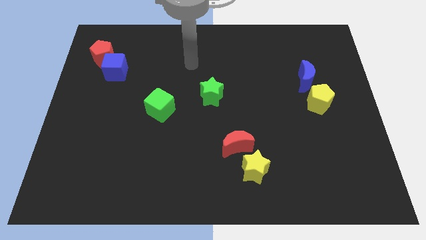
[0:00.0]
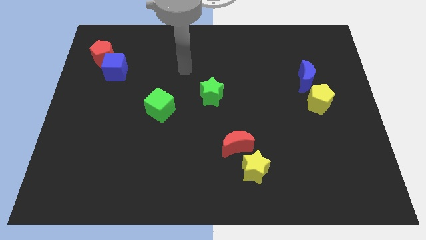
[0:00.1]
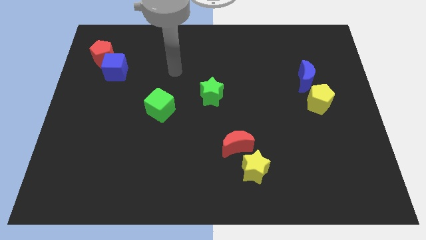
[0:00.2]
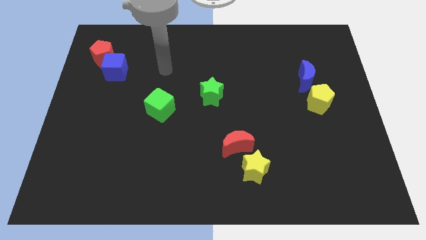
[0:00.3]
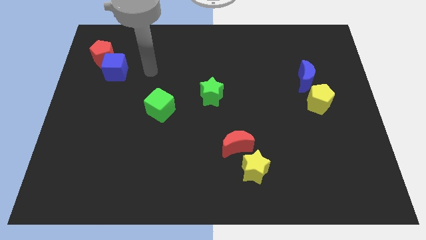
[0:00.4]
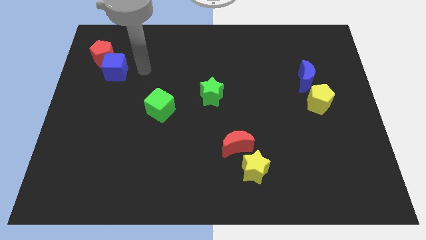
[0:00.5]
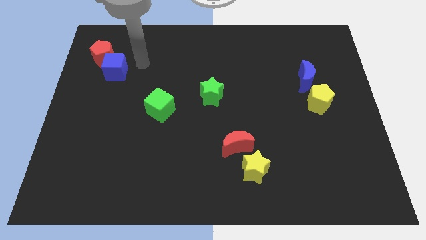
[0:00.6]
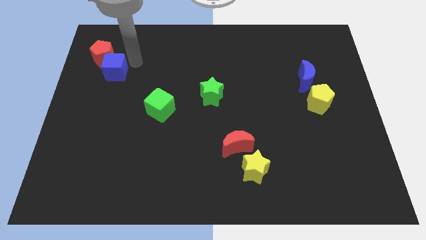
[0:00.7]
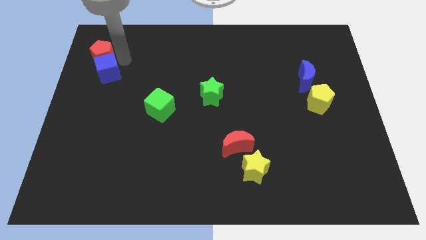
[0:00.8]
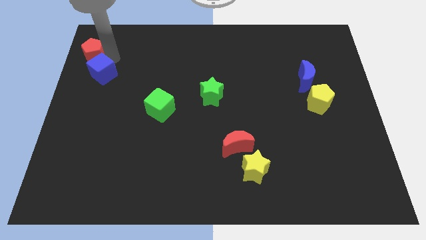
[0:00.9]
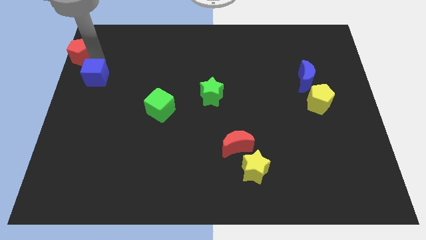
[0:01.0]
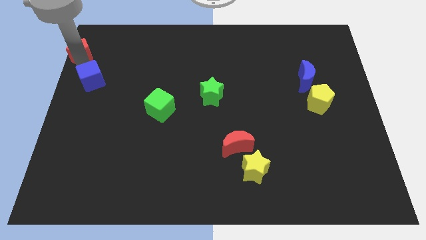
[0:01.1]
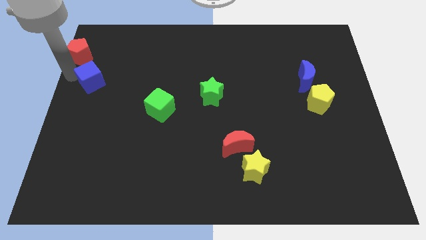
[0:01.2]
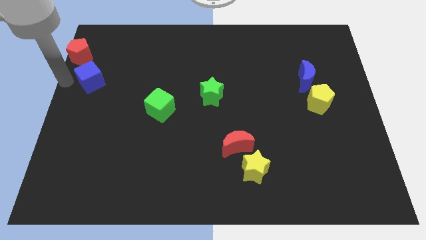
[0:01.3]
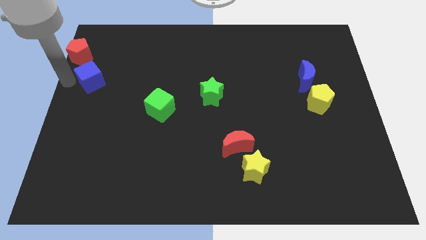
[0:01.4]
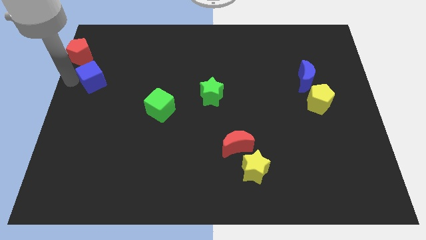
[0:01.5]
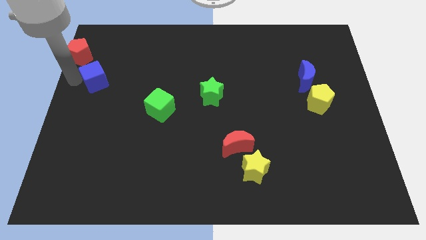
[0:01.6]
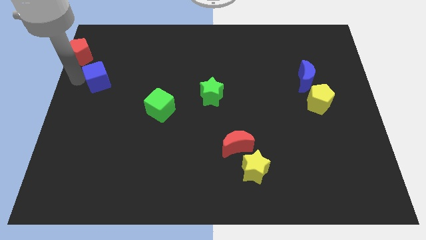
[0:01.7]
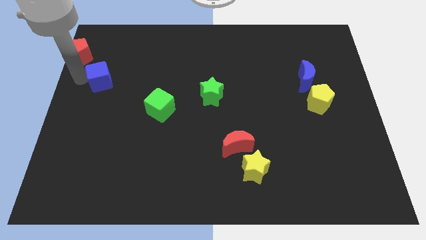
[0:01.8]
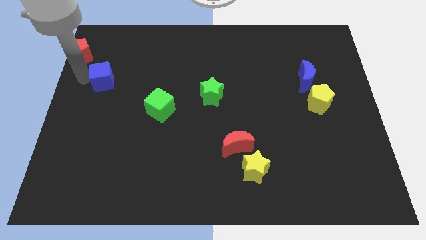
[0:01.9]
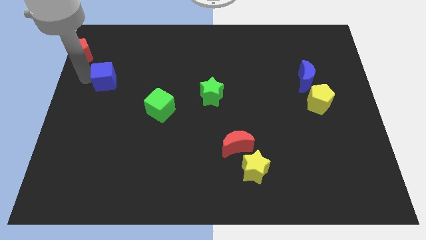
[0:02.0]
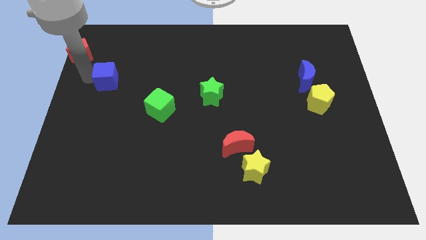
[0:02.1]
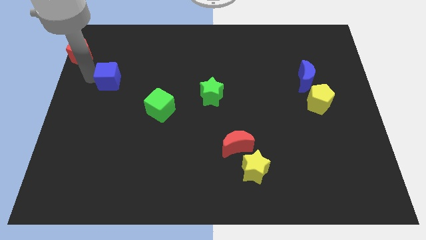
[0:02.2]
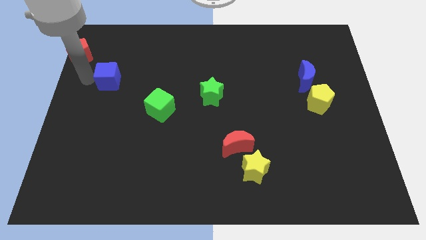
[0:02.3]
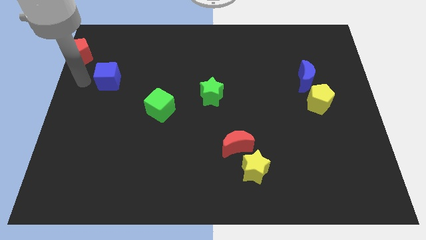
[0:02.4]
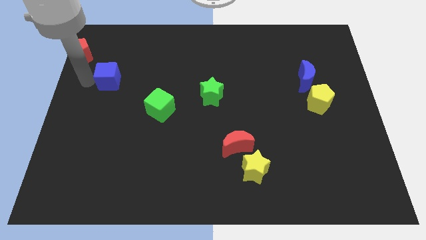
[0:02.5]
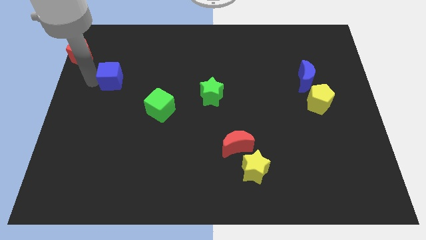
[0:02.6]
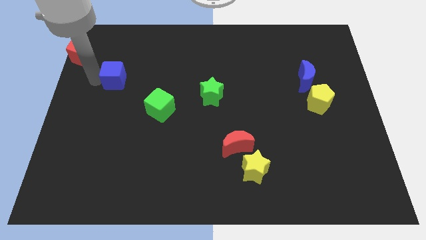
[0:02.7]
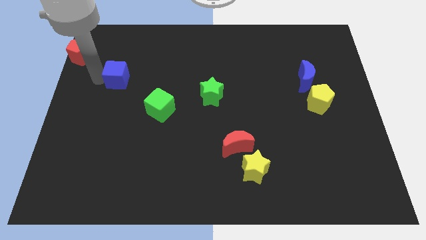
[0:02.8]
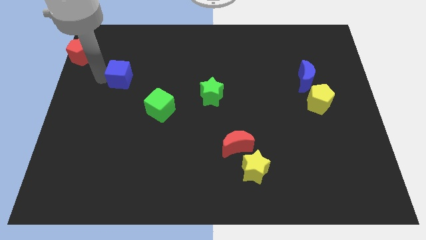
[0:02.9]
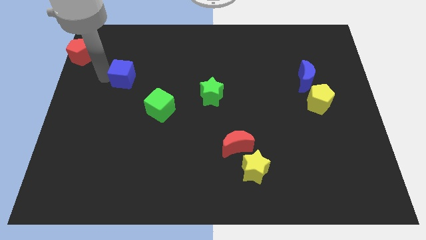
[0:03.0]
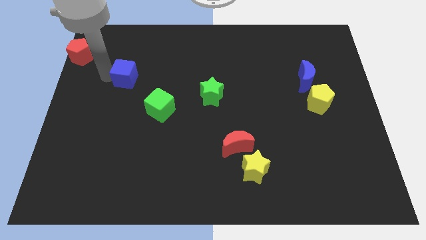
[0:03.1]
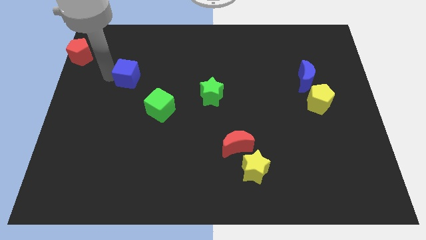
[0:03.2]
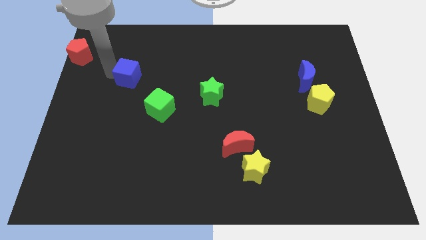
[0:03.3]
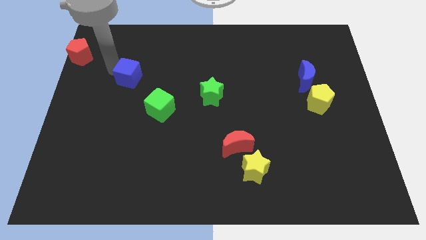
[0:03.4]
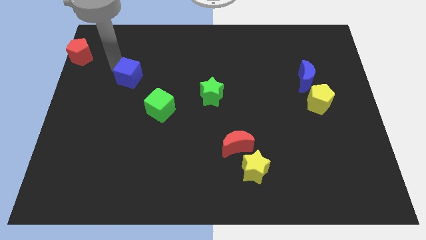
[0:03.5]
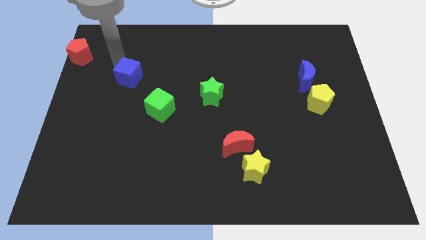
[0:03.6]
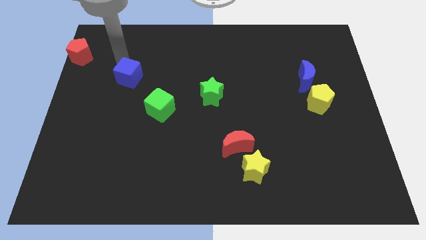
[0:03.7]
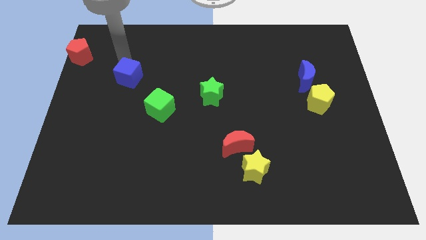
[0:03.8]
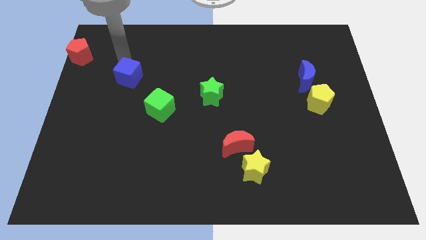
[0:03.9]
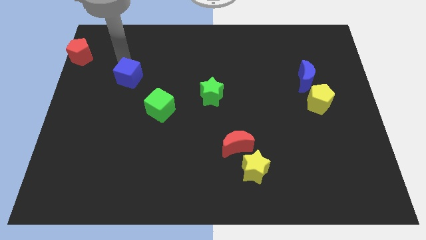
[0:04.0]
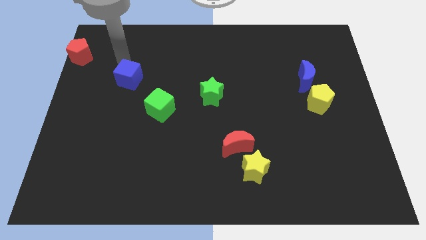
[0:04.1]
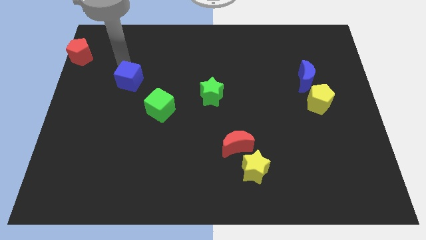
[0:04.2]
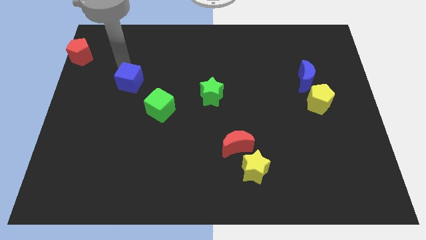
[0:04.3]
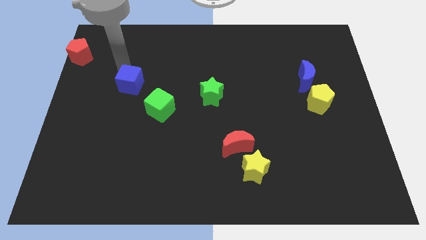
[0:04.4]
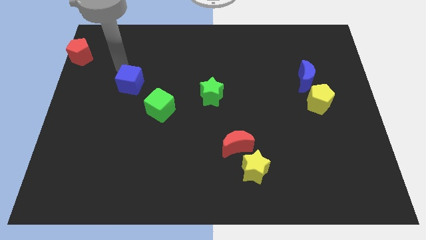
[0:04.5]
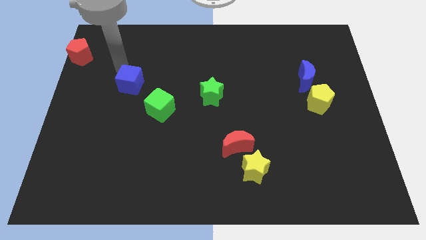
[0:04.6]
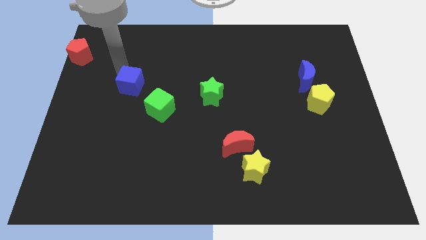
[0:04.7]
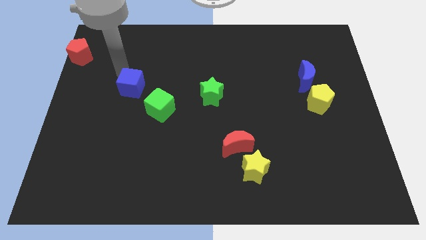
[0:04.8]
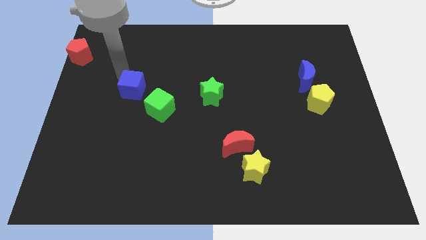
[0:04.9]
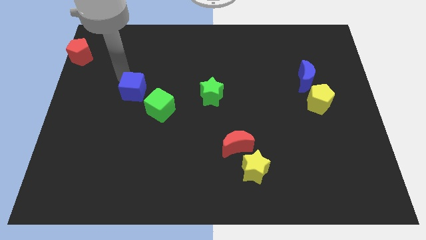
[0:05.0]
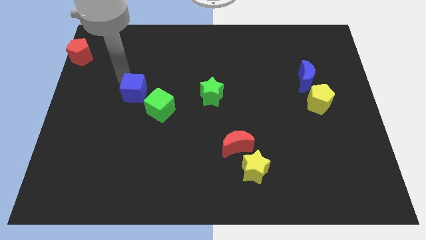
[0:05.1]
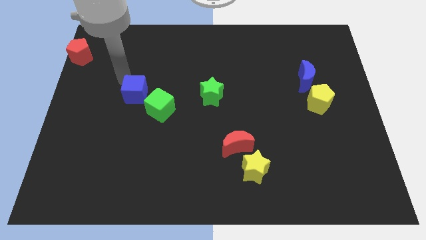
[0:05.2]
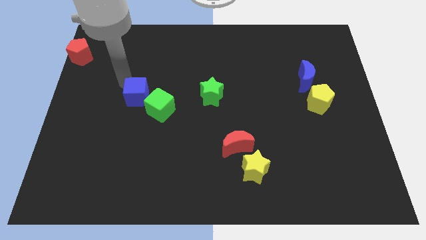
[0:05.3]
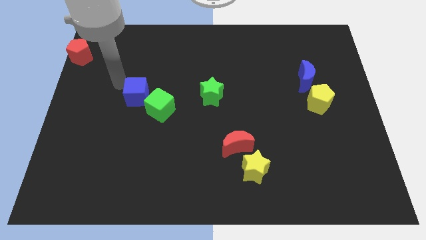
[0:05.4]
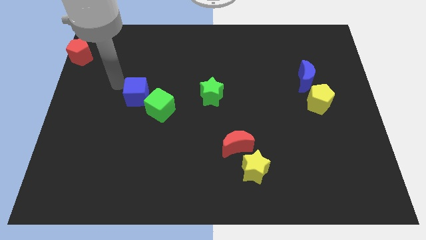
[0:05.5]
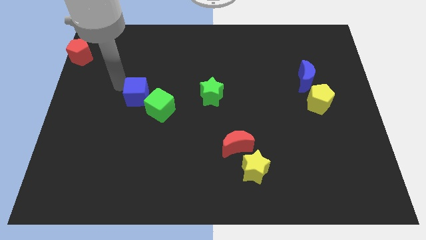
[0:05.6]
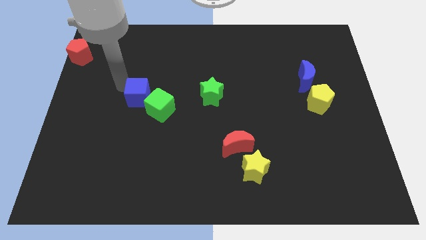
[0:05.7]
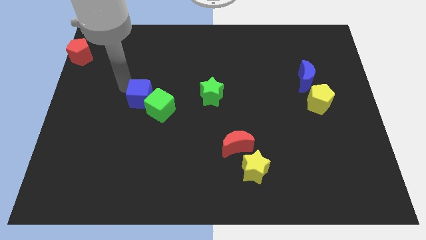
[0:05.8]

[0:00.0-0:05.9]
move the blue cube next to the green cube

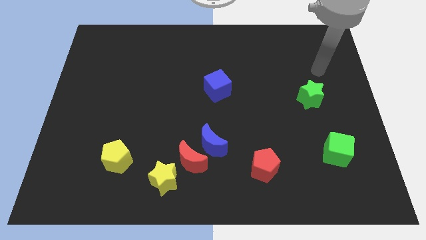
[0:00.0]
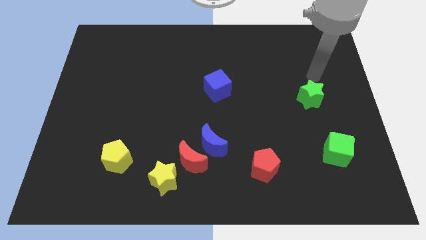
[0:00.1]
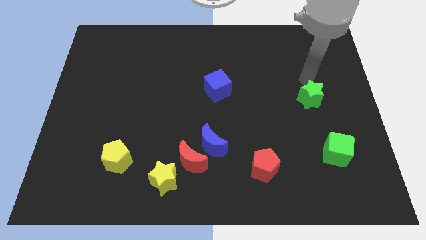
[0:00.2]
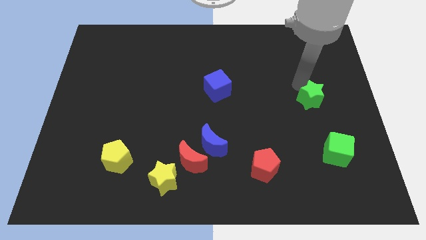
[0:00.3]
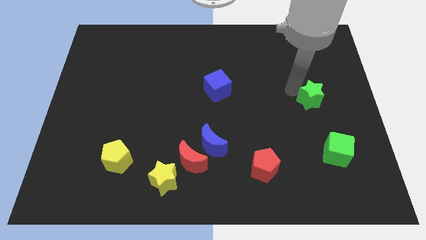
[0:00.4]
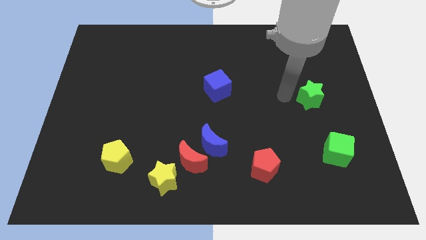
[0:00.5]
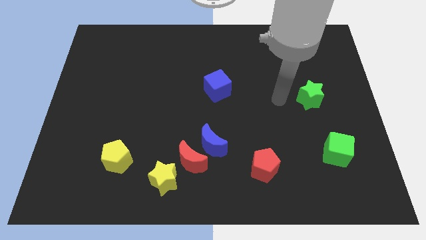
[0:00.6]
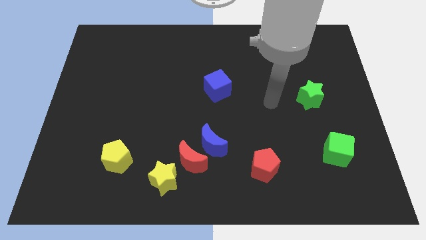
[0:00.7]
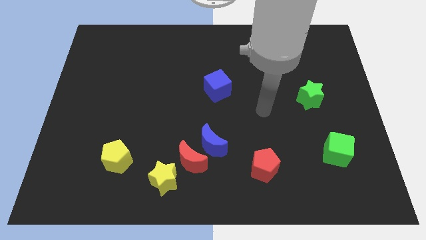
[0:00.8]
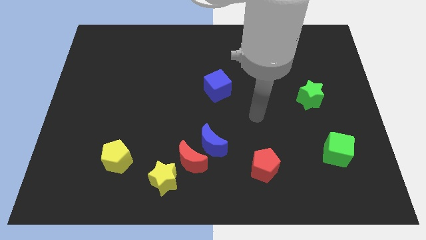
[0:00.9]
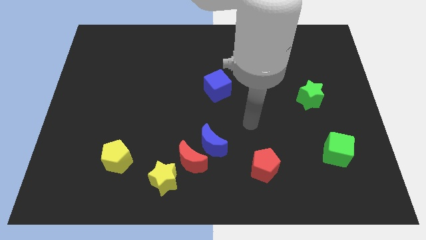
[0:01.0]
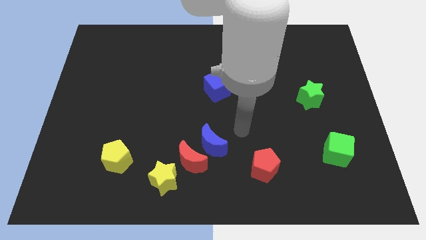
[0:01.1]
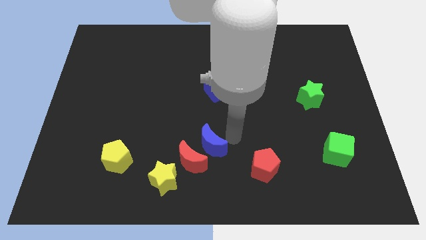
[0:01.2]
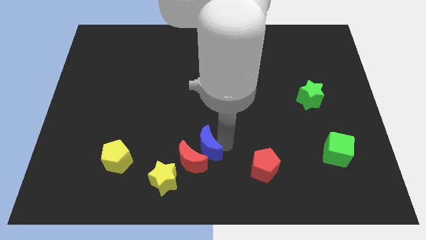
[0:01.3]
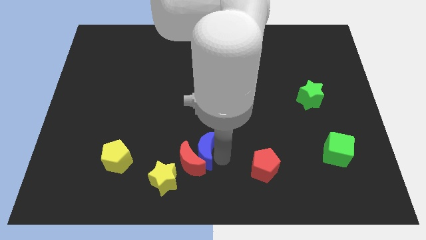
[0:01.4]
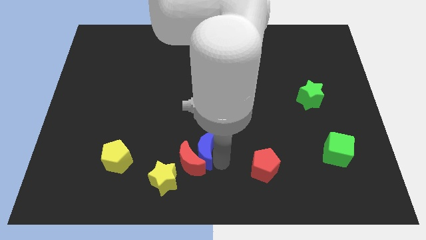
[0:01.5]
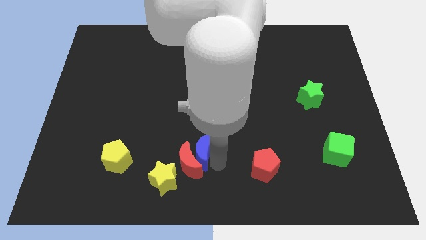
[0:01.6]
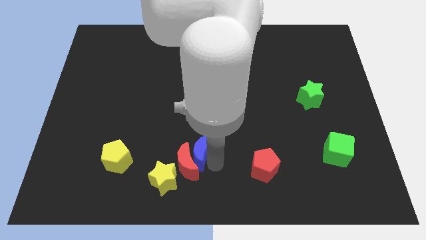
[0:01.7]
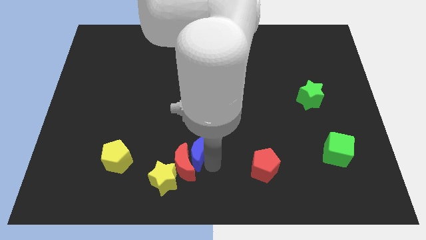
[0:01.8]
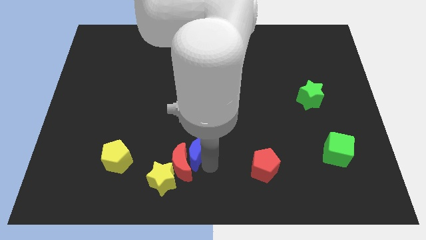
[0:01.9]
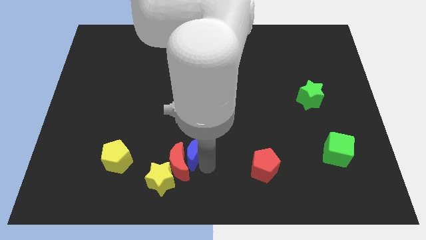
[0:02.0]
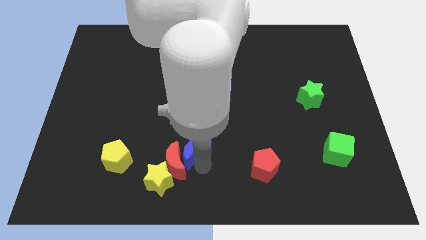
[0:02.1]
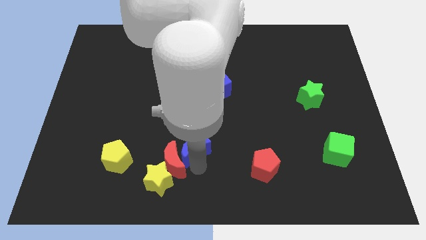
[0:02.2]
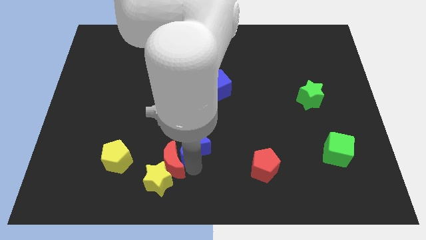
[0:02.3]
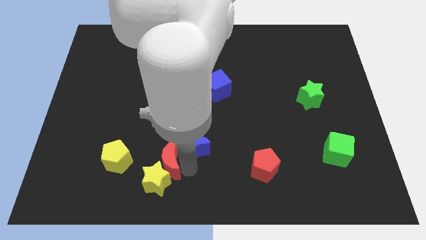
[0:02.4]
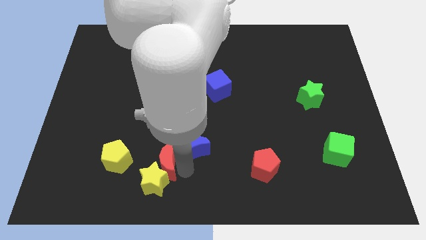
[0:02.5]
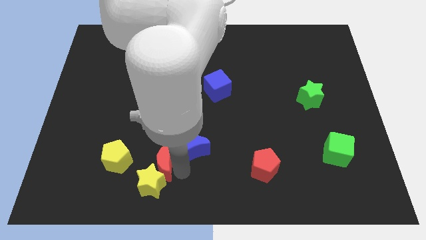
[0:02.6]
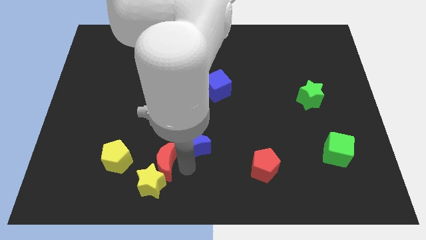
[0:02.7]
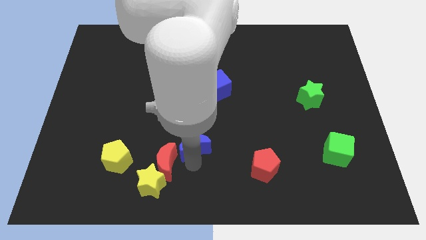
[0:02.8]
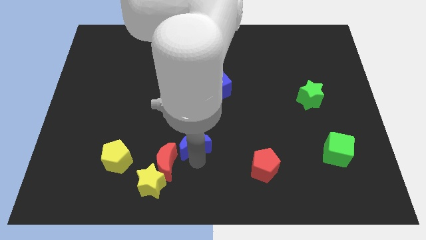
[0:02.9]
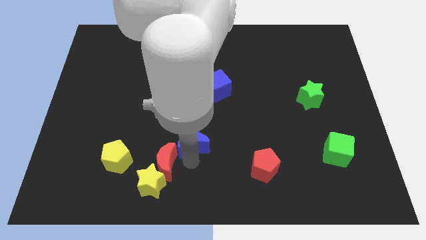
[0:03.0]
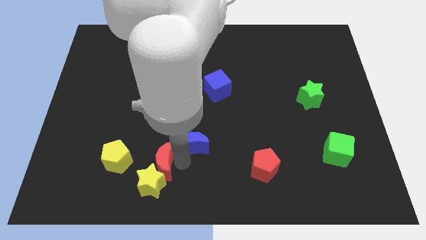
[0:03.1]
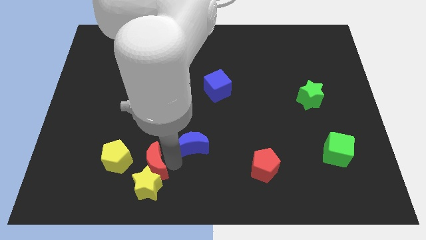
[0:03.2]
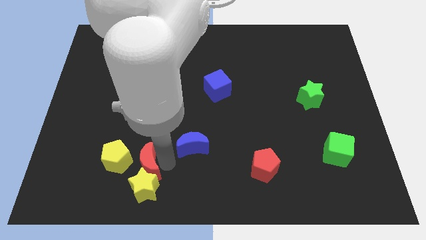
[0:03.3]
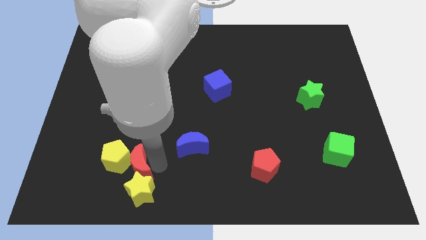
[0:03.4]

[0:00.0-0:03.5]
push the red moon towards the yellow pentagon
